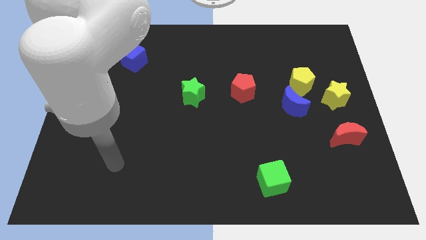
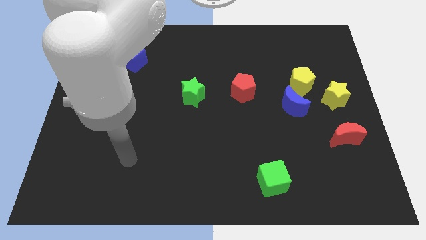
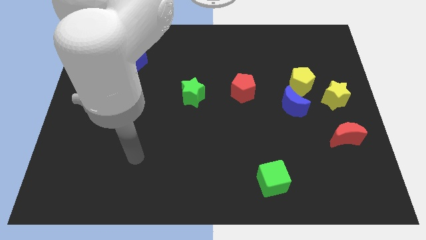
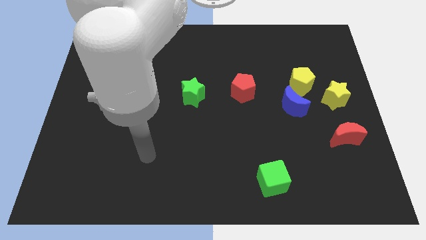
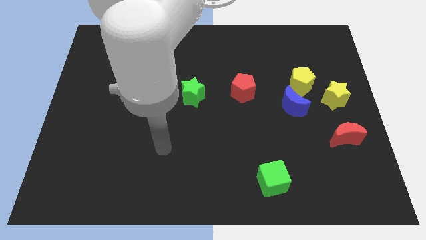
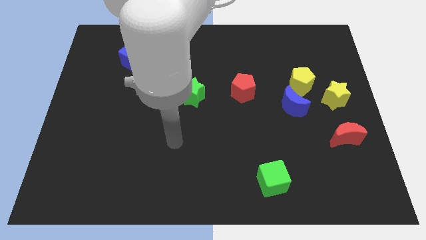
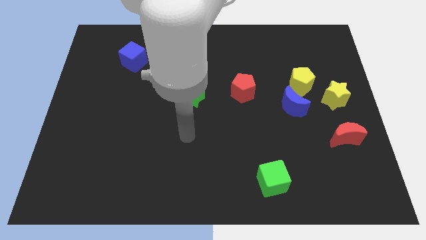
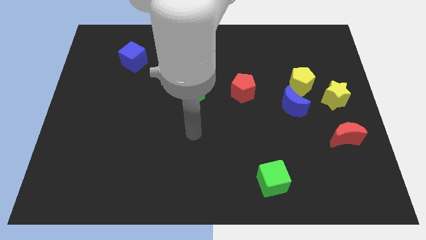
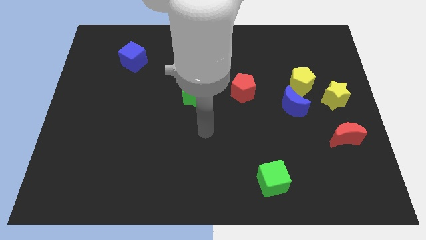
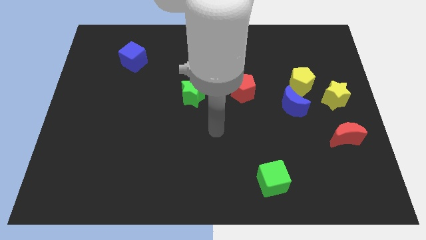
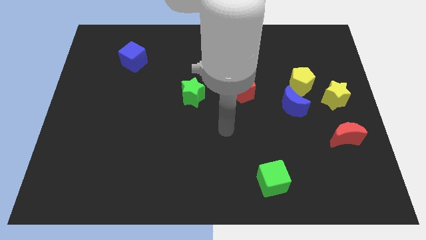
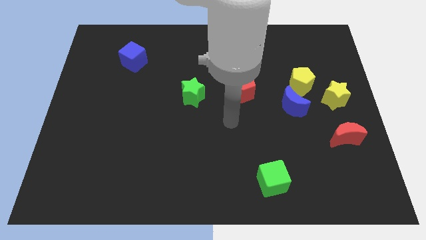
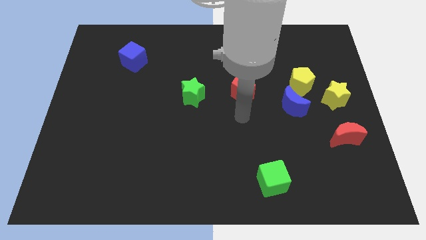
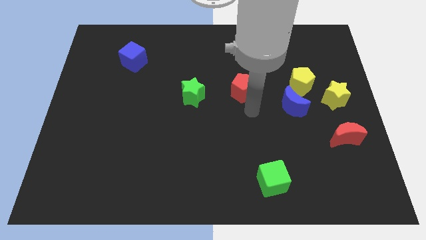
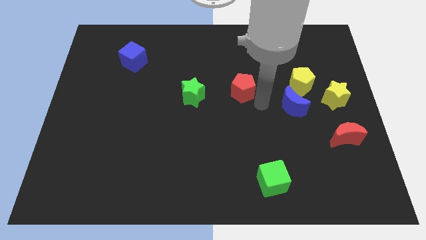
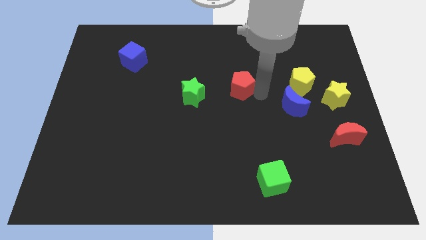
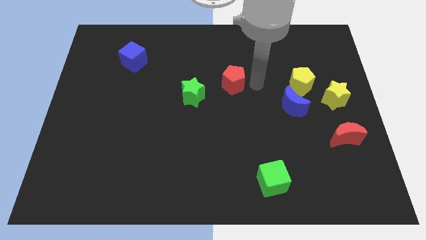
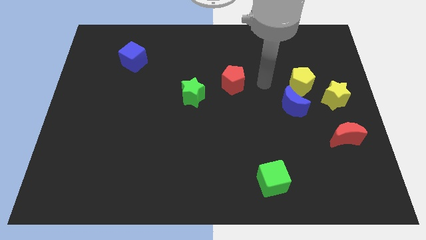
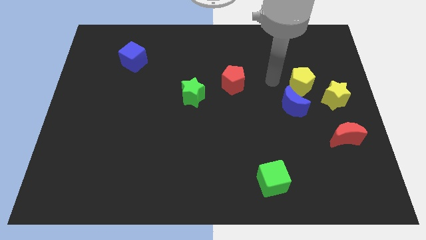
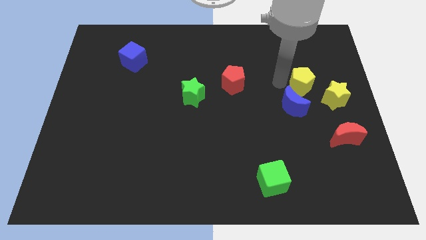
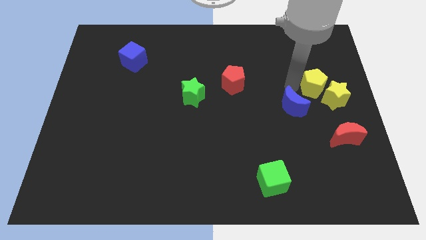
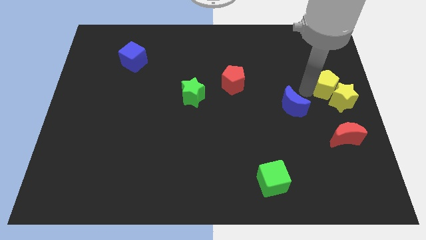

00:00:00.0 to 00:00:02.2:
pull the blue moon apart from the yellow pentagon

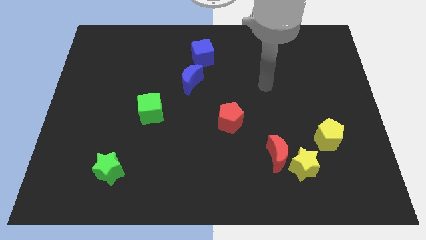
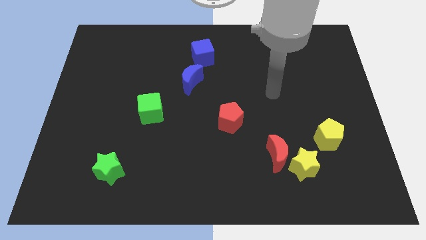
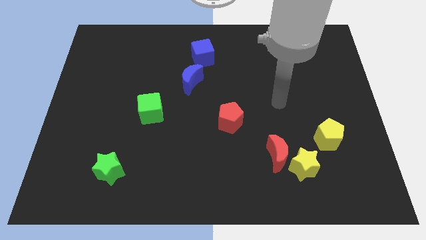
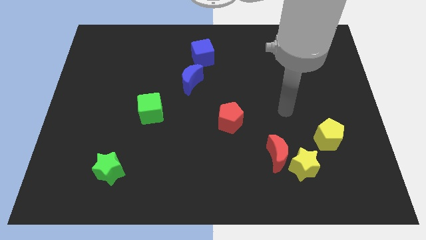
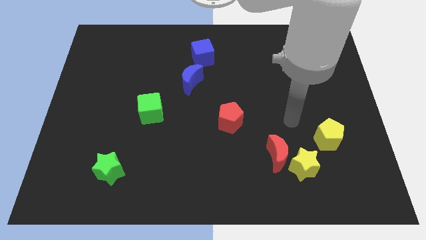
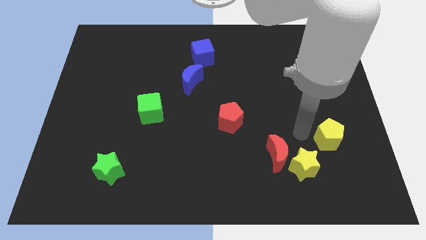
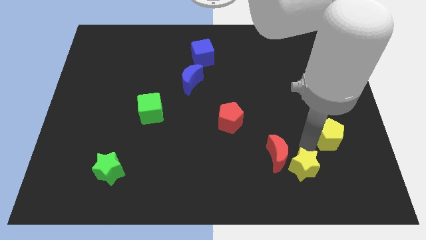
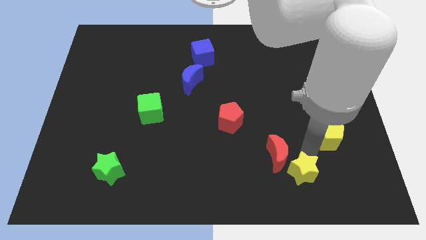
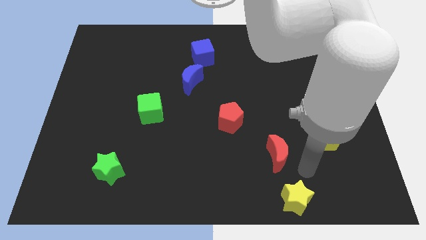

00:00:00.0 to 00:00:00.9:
move the red moon away from the yellow star

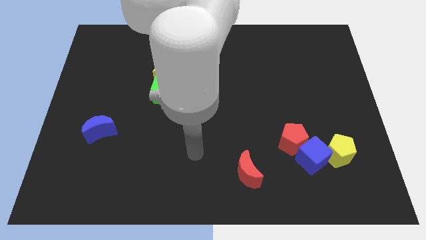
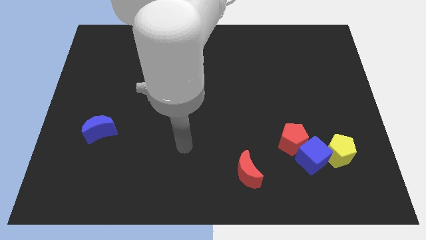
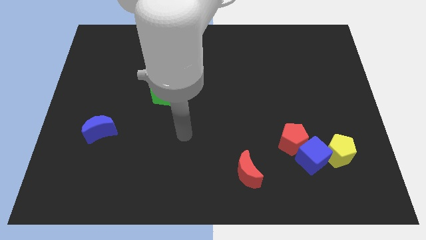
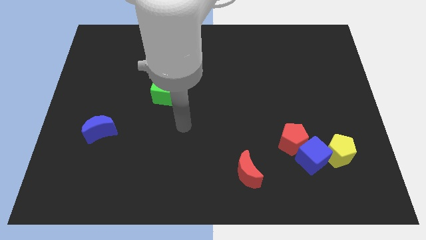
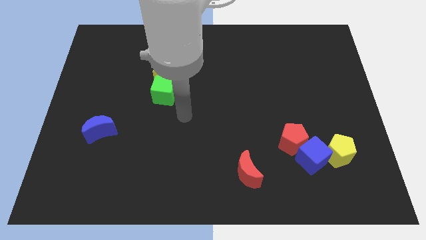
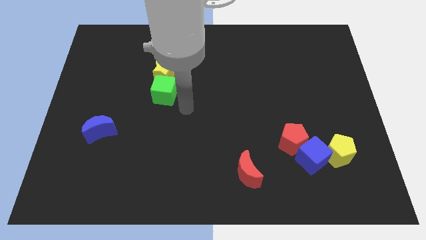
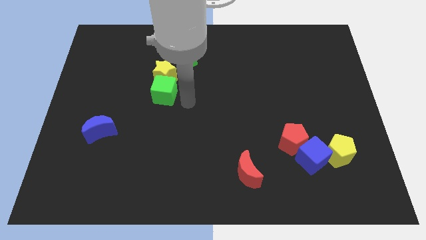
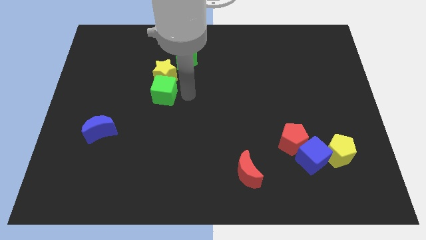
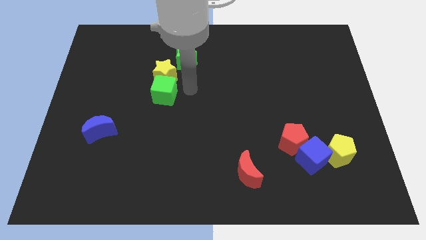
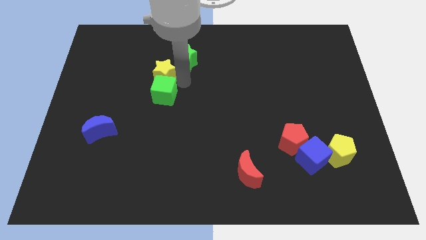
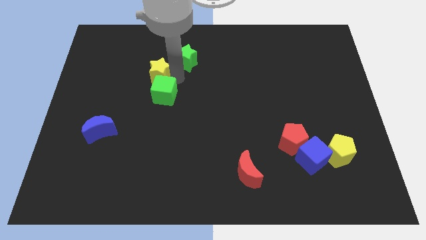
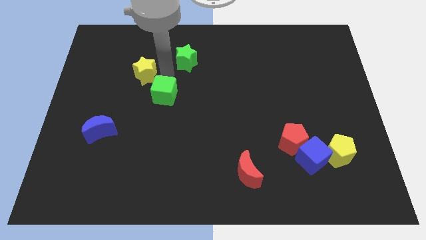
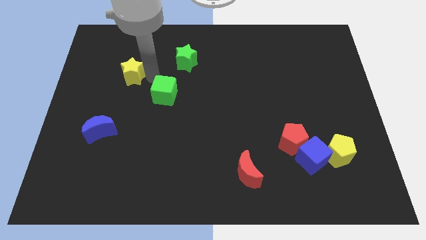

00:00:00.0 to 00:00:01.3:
separate the green cube from the yellow star

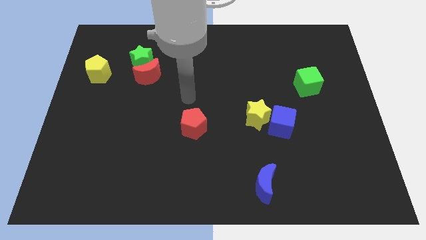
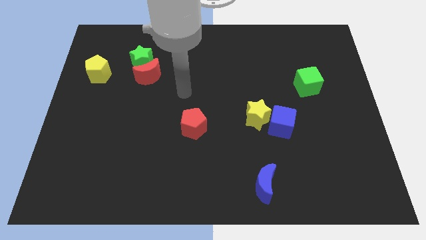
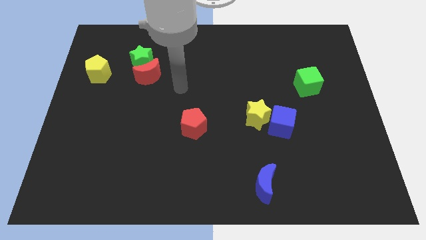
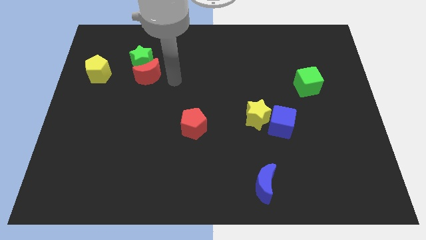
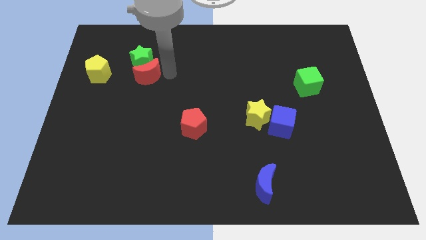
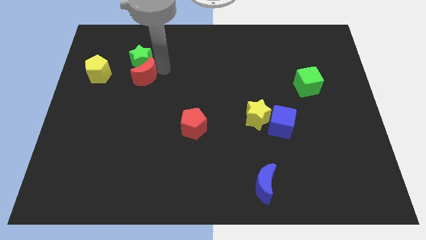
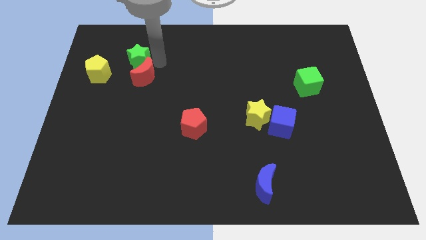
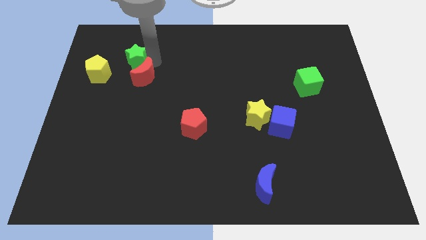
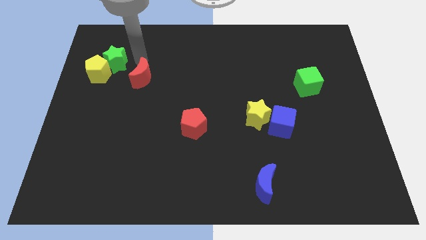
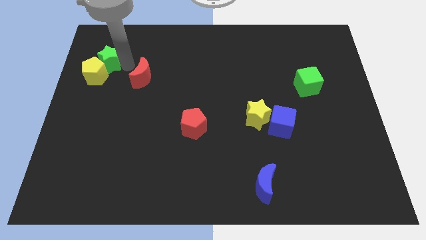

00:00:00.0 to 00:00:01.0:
separate the red moon from the green star

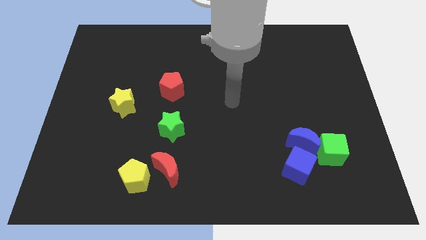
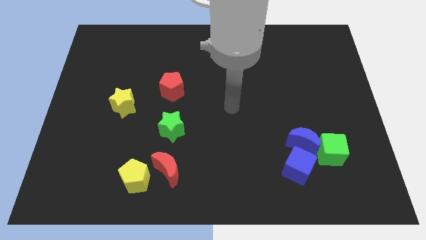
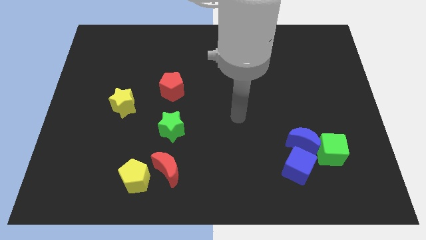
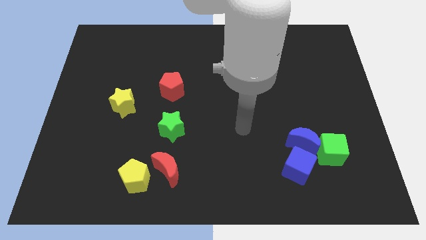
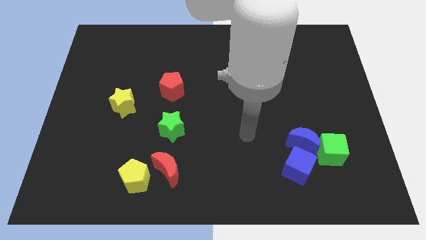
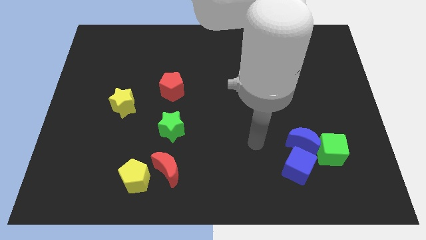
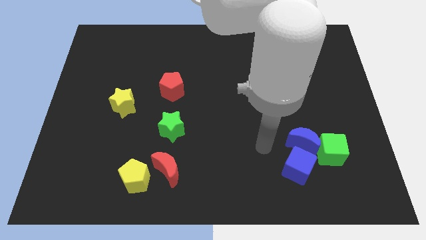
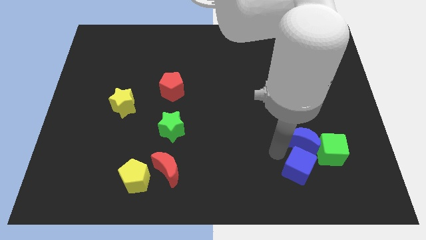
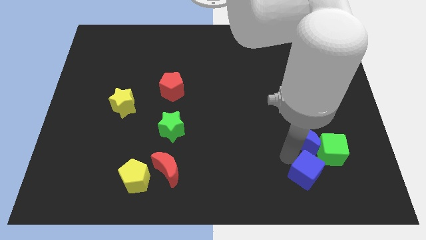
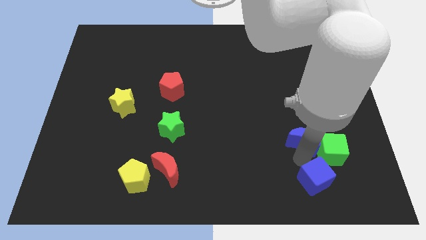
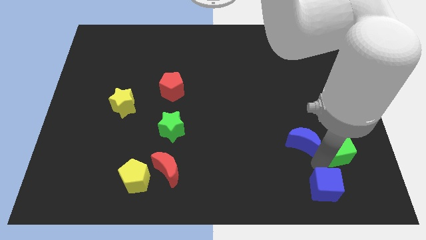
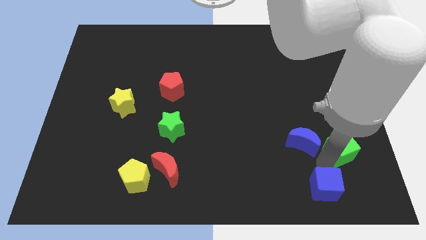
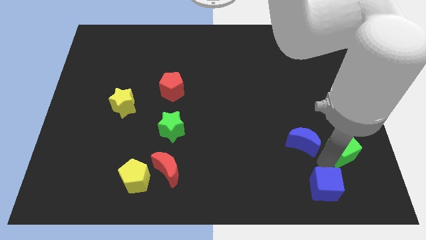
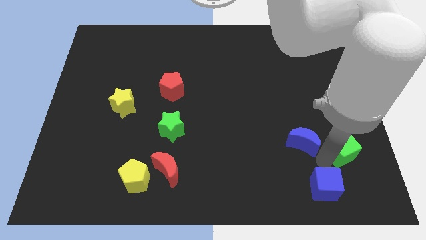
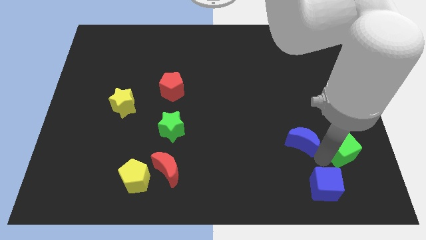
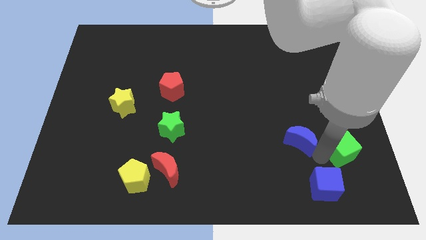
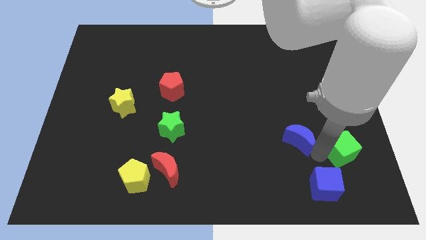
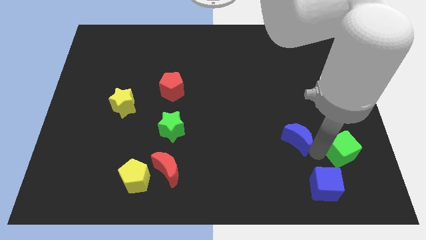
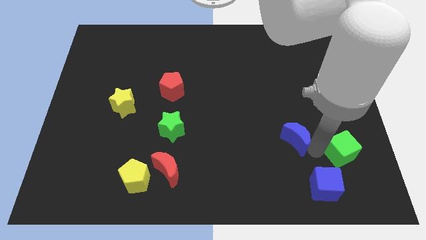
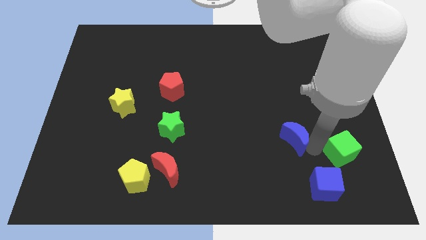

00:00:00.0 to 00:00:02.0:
pull the blue moon apart from the green cube and blue cube

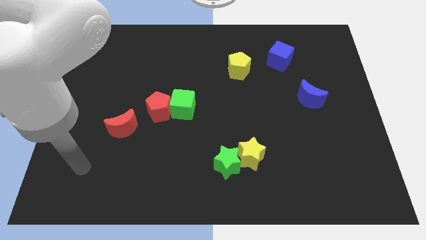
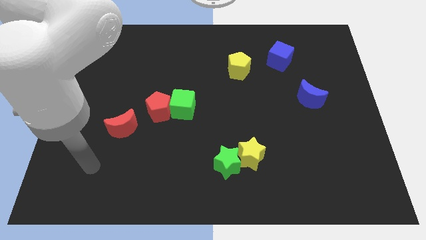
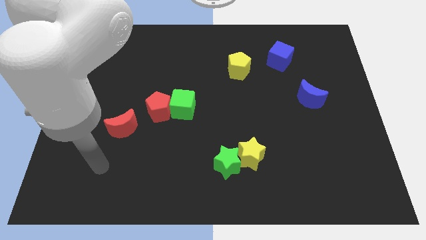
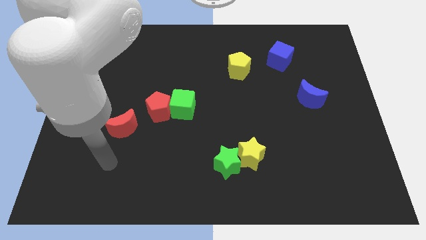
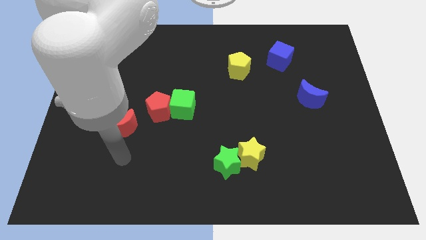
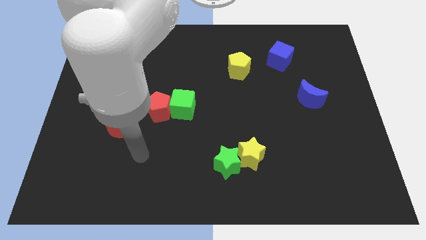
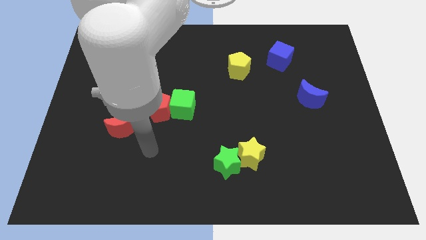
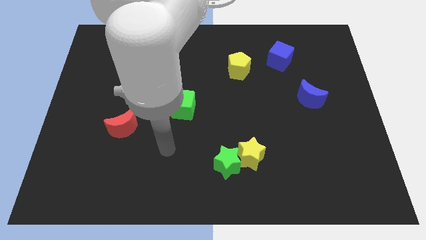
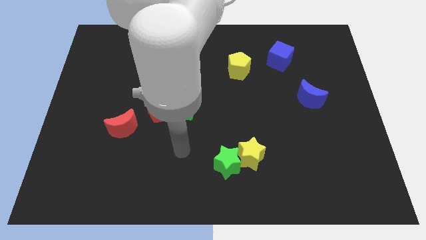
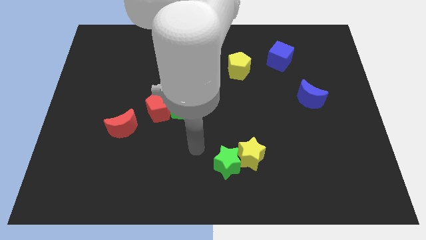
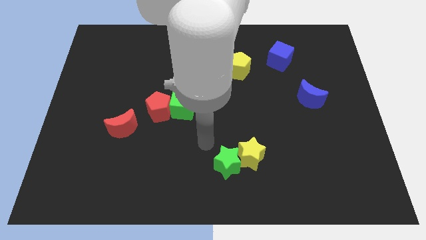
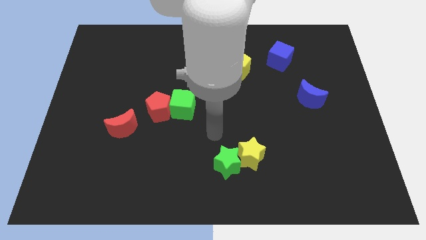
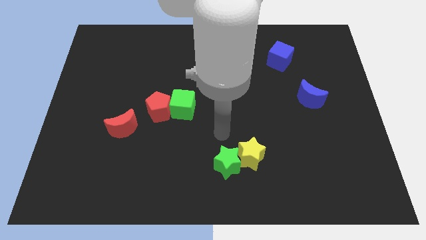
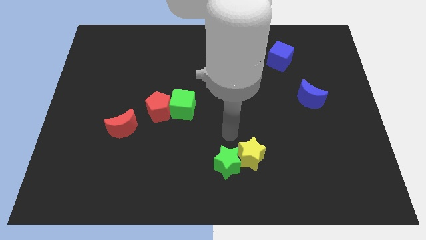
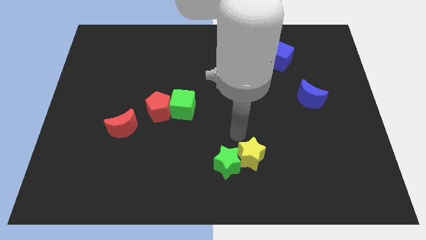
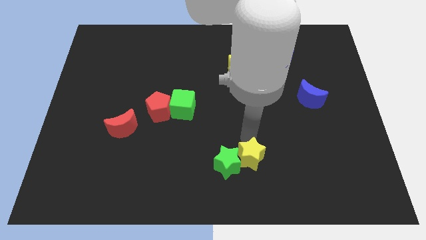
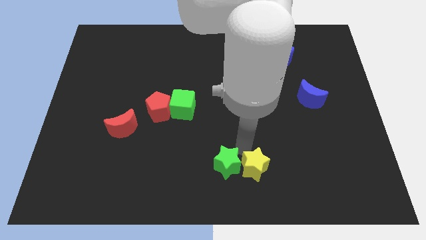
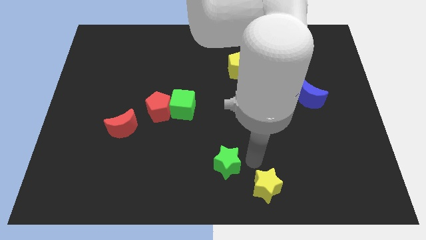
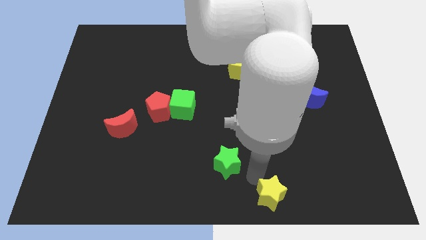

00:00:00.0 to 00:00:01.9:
move the green star away from the yellow star
